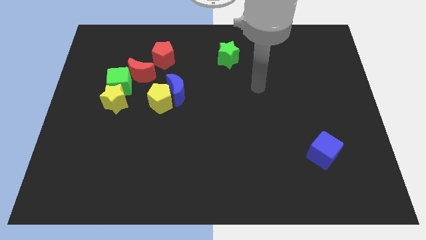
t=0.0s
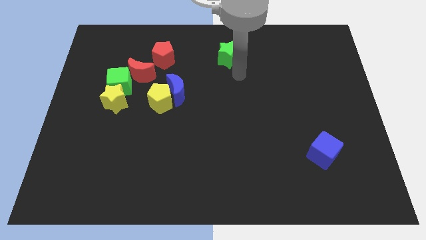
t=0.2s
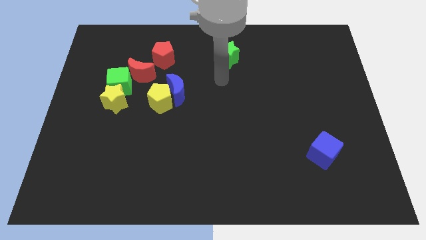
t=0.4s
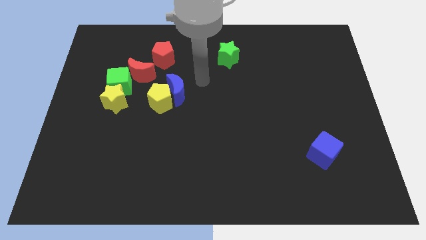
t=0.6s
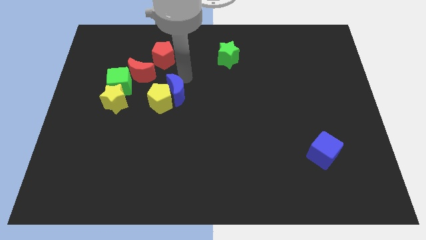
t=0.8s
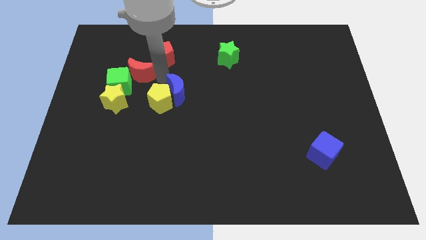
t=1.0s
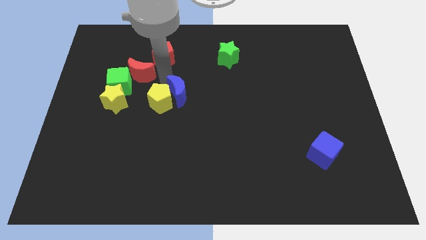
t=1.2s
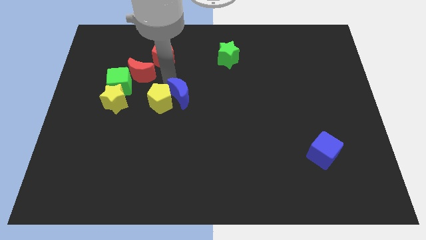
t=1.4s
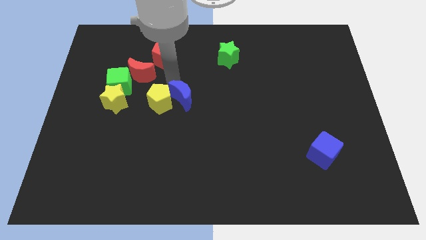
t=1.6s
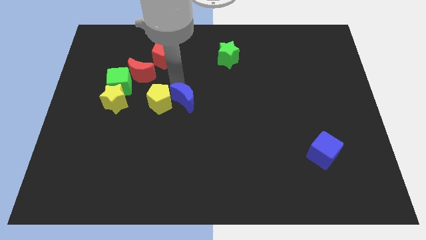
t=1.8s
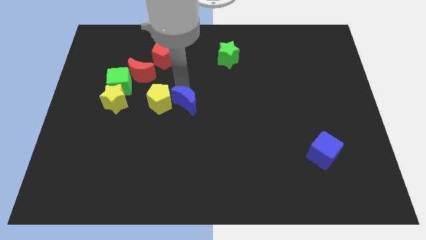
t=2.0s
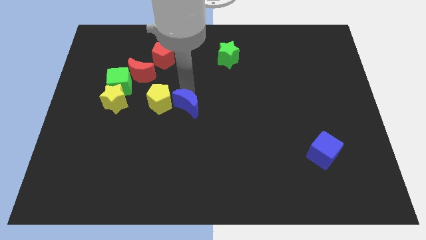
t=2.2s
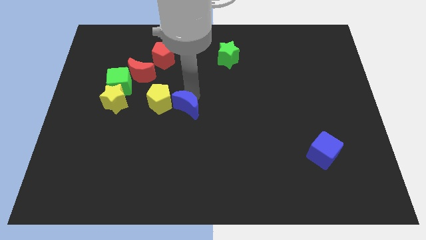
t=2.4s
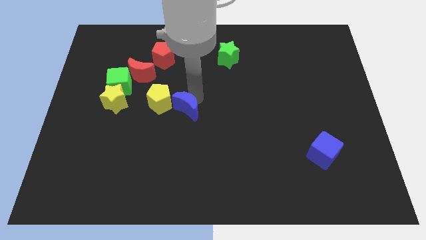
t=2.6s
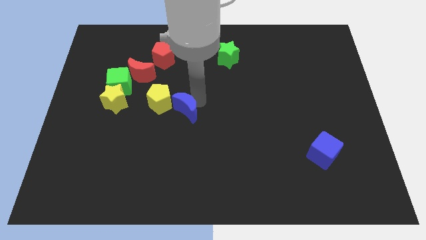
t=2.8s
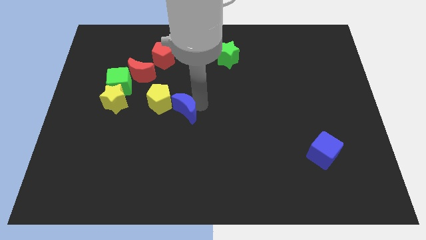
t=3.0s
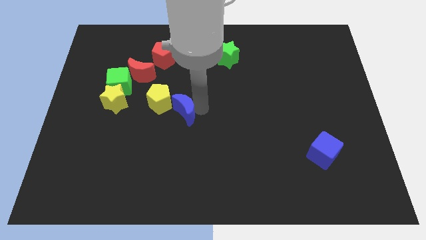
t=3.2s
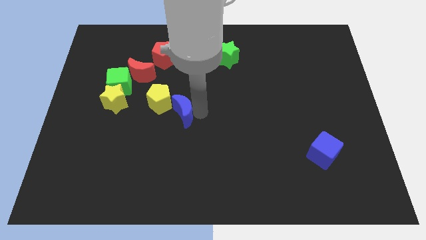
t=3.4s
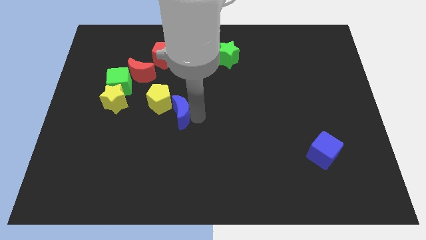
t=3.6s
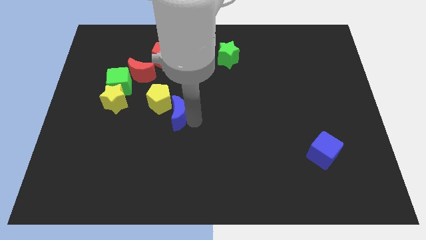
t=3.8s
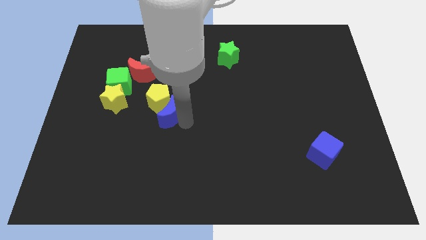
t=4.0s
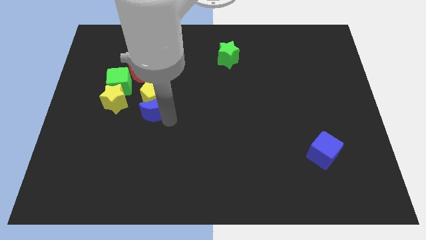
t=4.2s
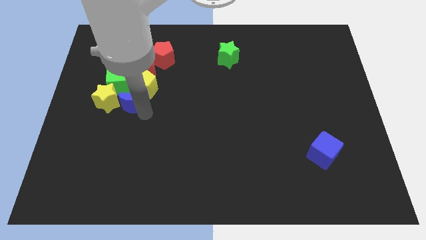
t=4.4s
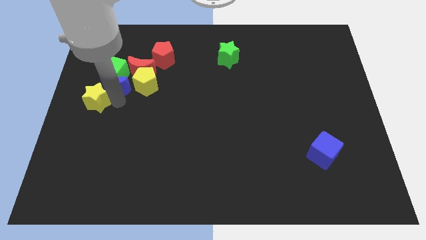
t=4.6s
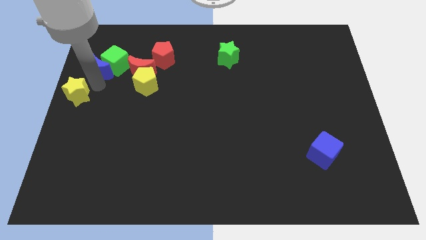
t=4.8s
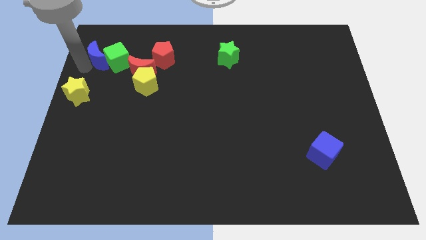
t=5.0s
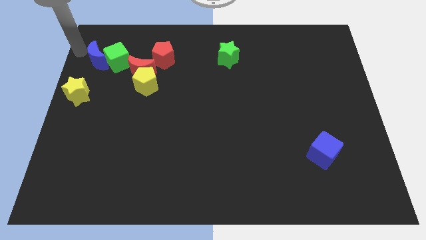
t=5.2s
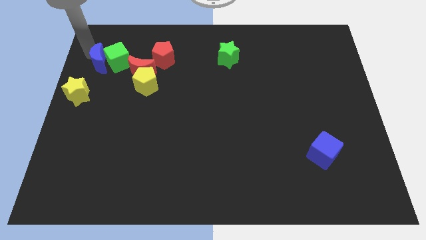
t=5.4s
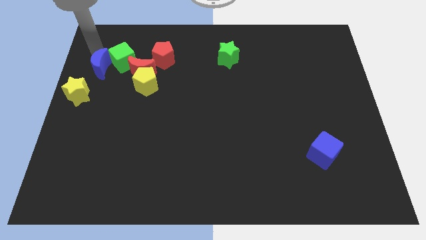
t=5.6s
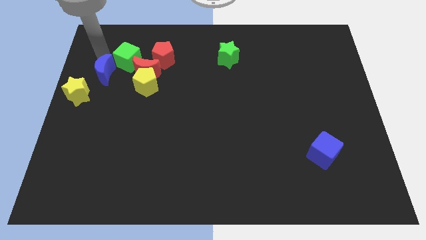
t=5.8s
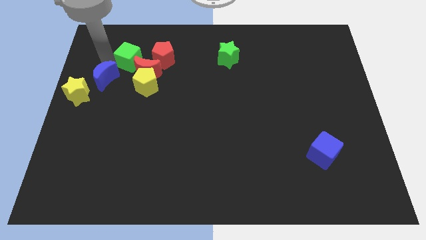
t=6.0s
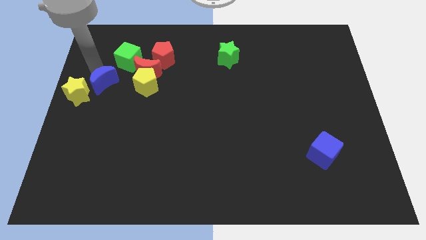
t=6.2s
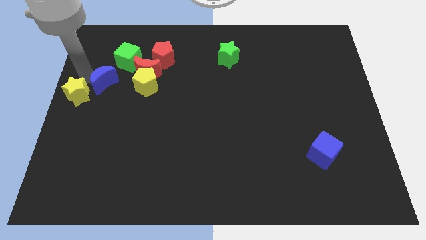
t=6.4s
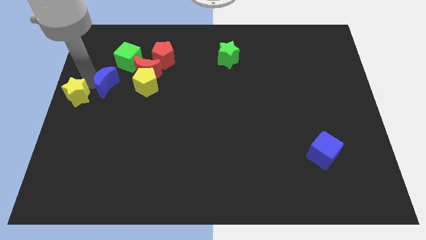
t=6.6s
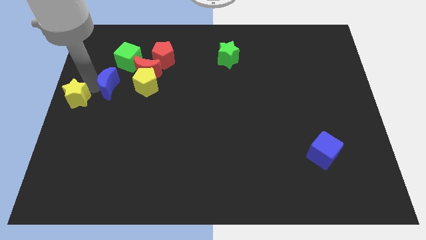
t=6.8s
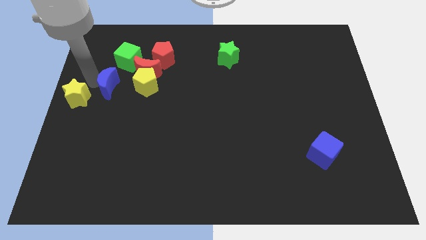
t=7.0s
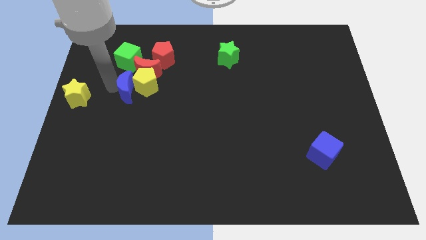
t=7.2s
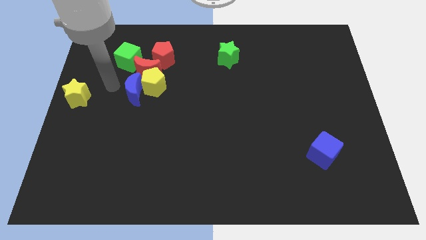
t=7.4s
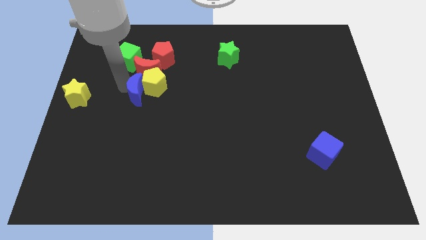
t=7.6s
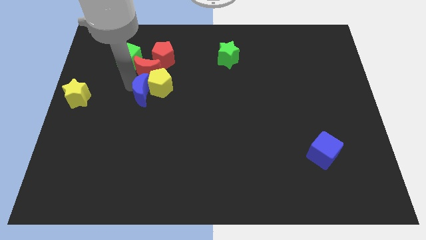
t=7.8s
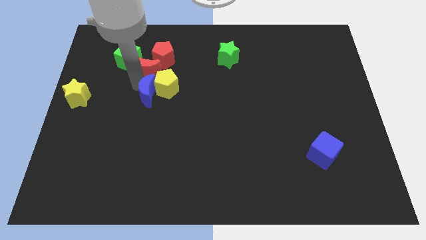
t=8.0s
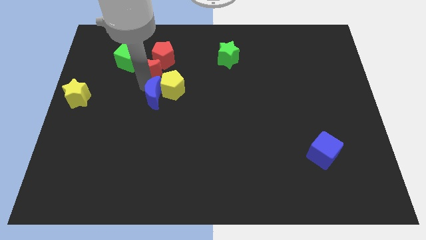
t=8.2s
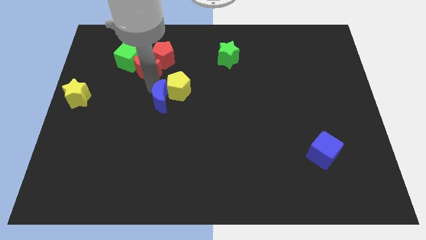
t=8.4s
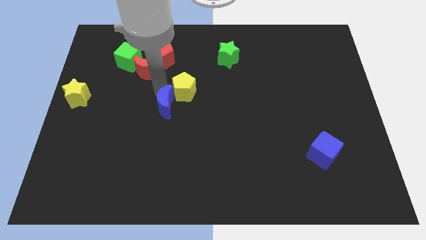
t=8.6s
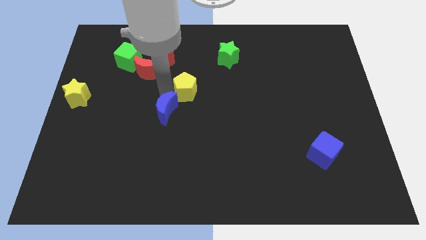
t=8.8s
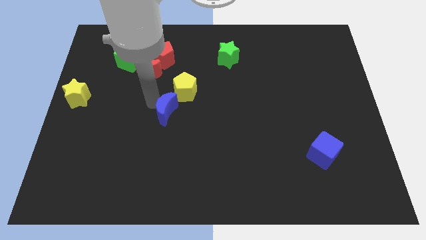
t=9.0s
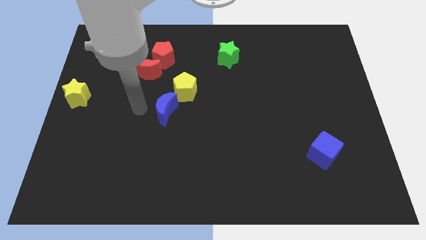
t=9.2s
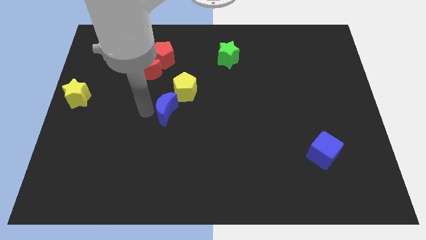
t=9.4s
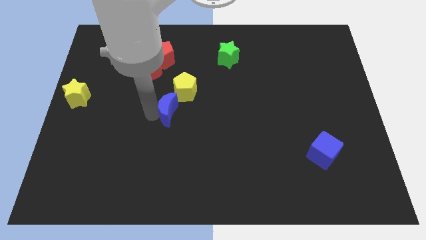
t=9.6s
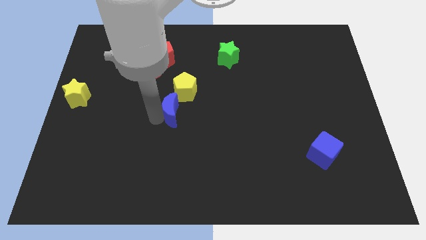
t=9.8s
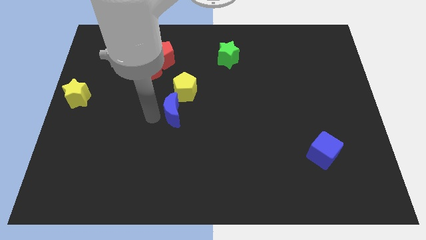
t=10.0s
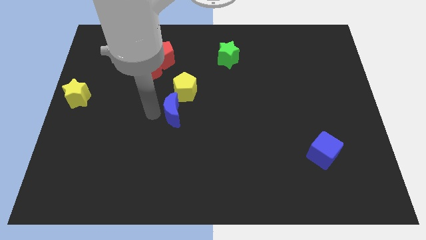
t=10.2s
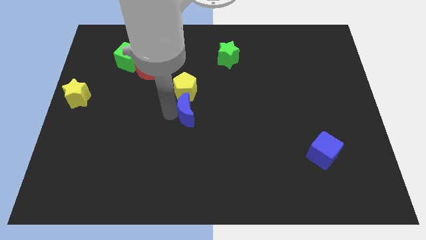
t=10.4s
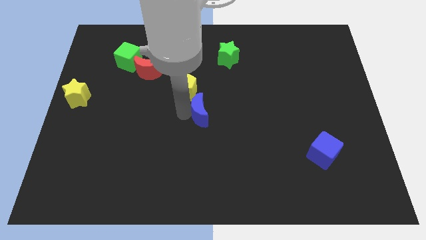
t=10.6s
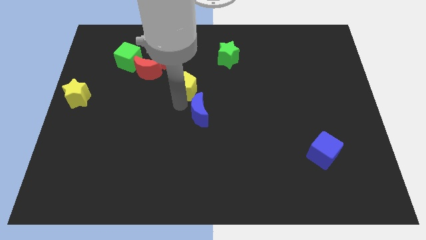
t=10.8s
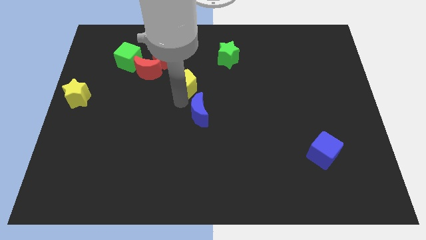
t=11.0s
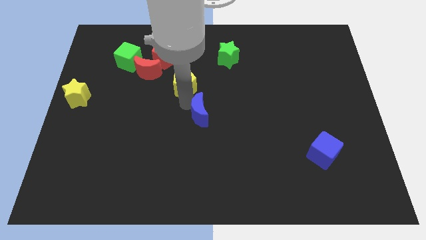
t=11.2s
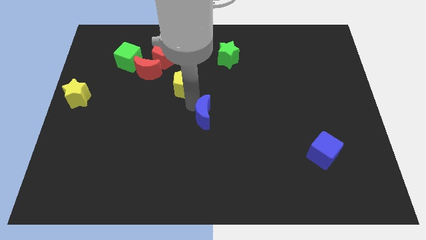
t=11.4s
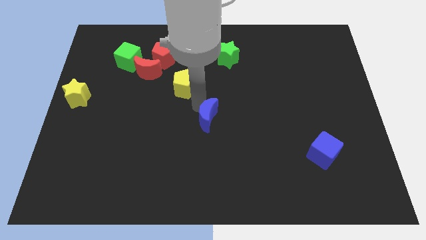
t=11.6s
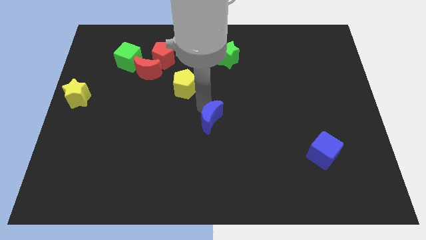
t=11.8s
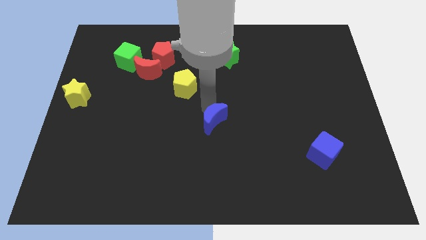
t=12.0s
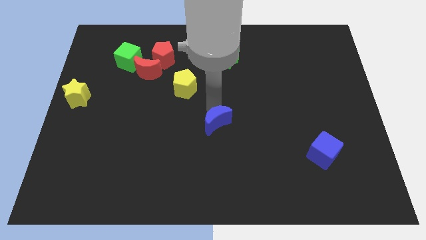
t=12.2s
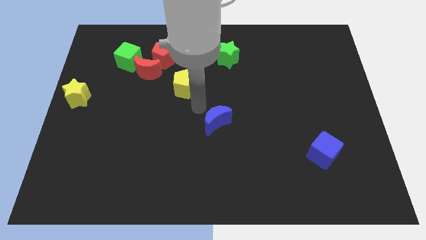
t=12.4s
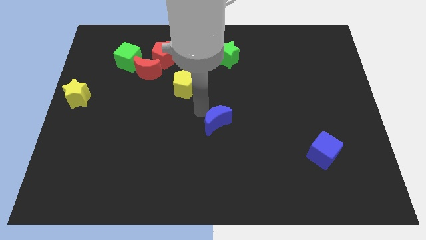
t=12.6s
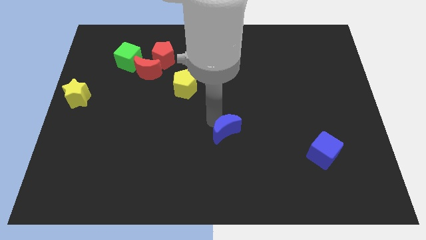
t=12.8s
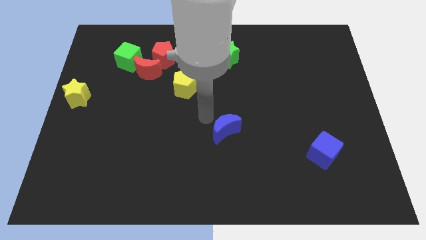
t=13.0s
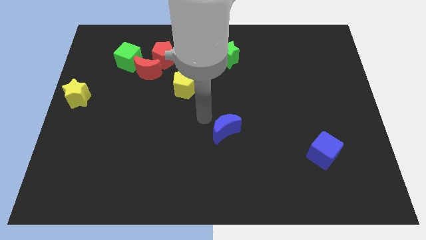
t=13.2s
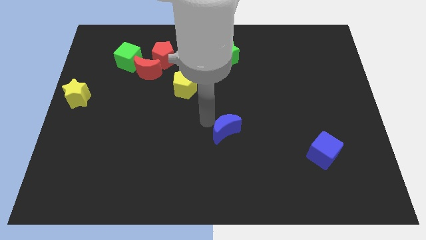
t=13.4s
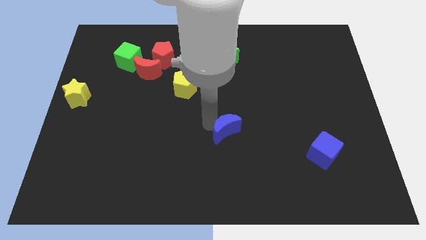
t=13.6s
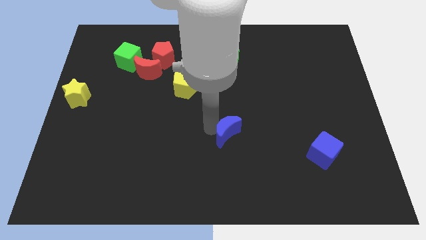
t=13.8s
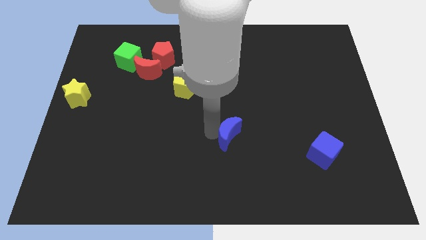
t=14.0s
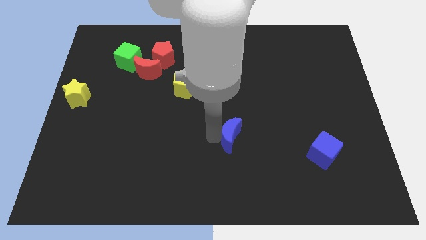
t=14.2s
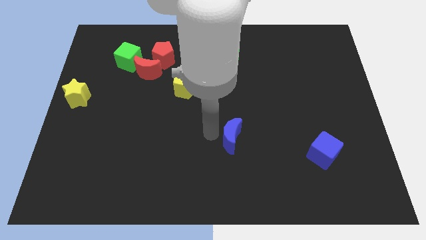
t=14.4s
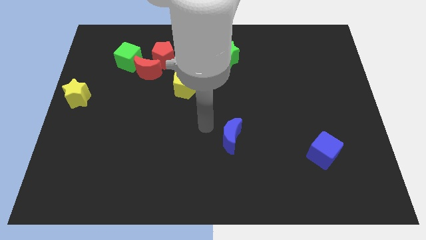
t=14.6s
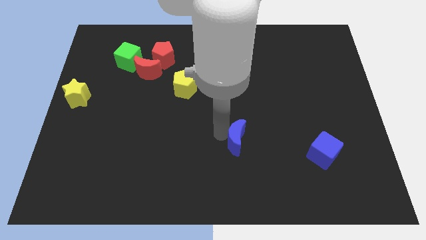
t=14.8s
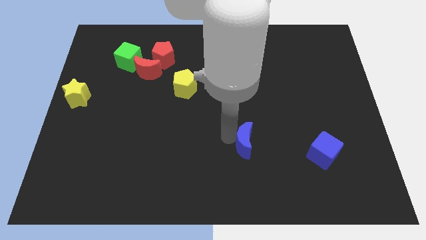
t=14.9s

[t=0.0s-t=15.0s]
move the blue moon downwards and to the right diagonally

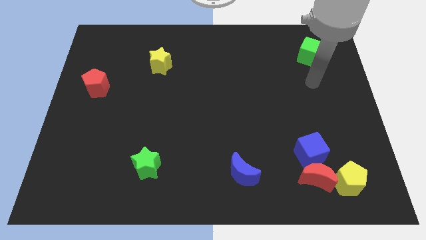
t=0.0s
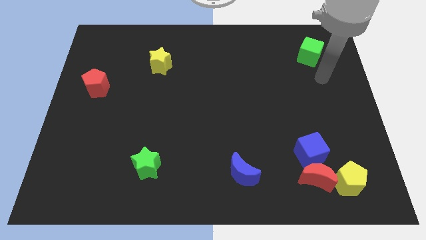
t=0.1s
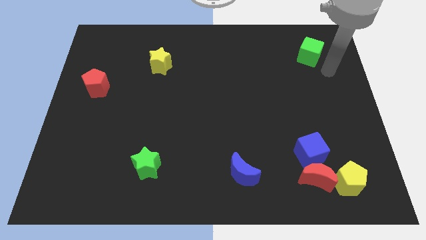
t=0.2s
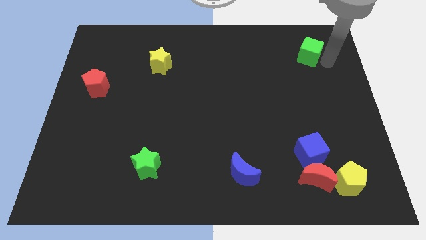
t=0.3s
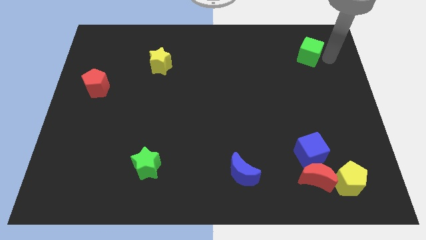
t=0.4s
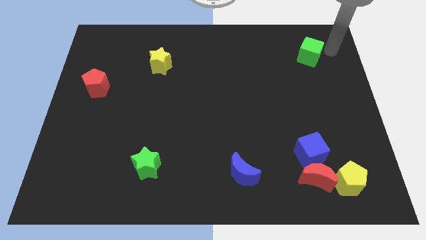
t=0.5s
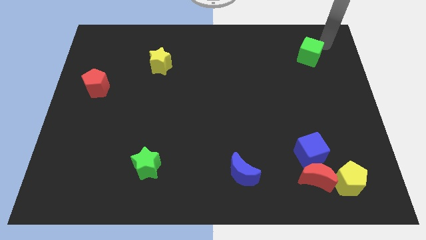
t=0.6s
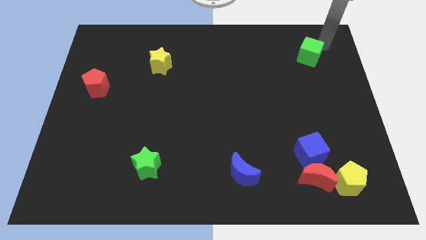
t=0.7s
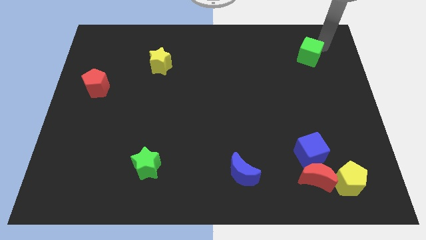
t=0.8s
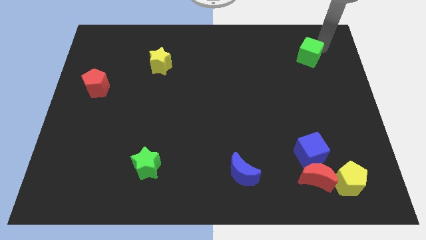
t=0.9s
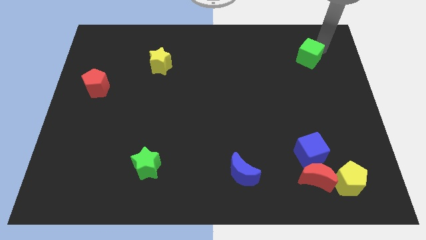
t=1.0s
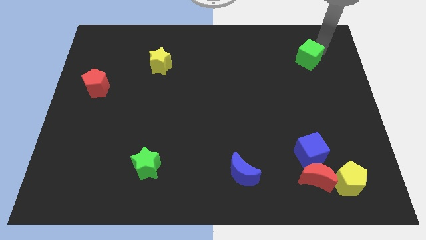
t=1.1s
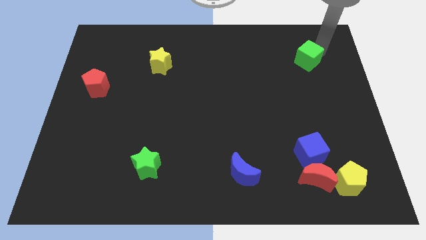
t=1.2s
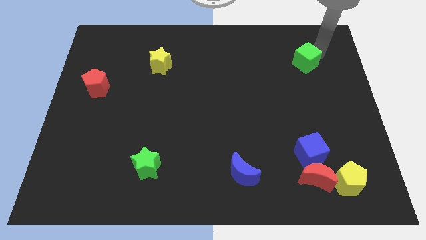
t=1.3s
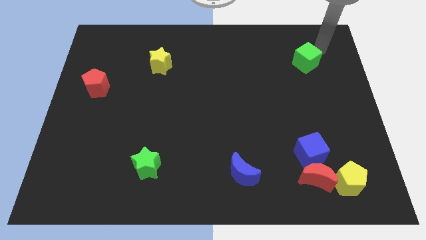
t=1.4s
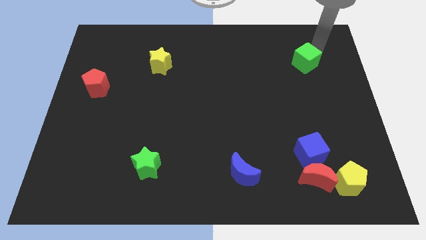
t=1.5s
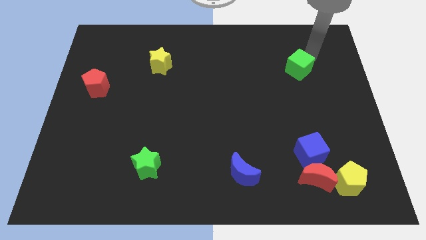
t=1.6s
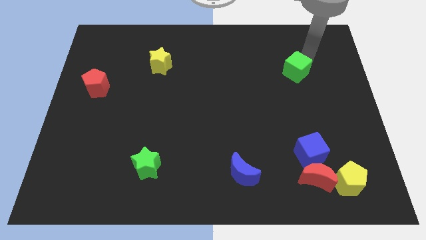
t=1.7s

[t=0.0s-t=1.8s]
slightly move the green cube diagonally down and to the left
